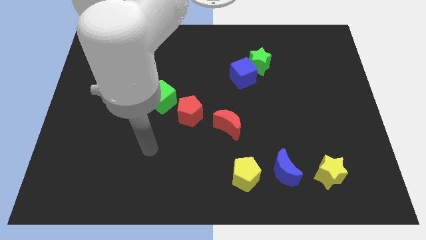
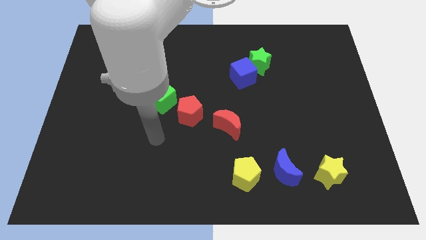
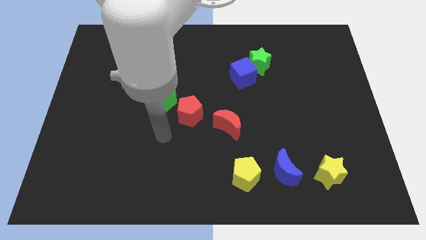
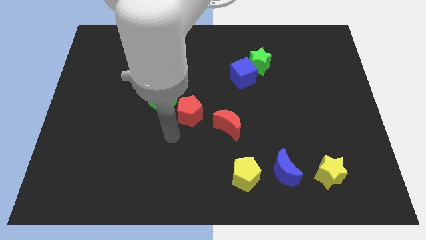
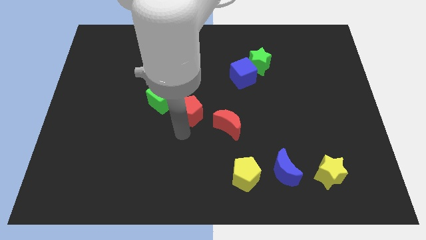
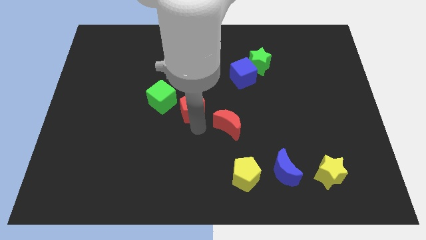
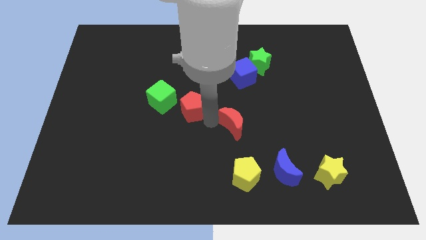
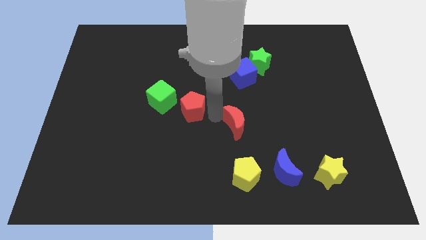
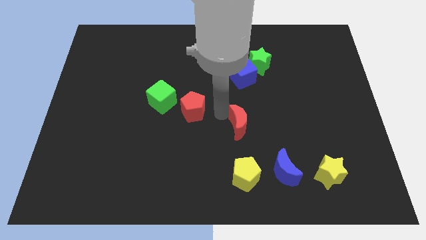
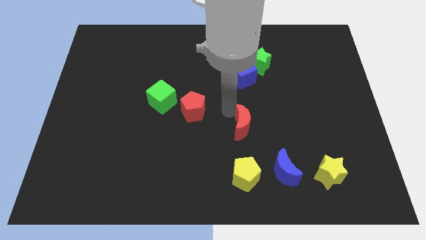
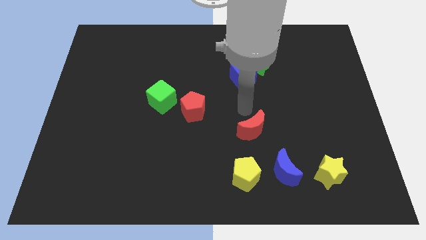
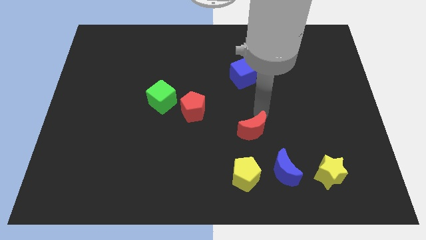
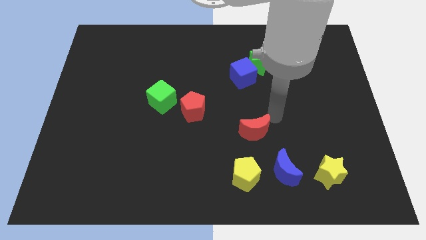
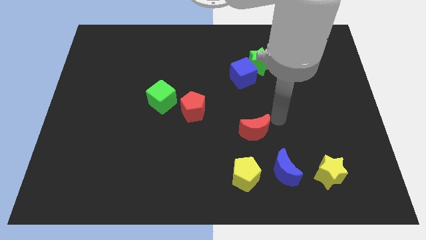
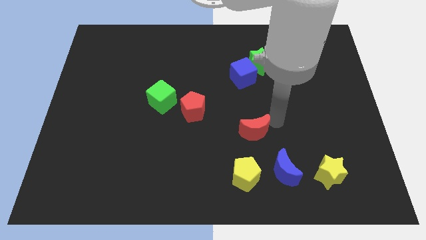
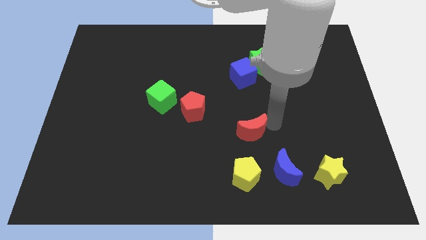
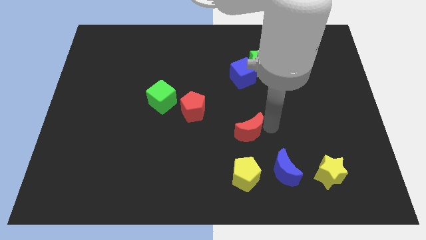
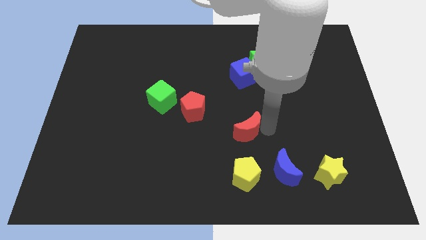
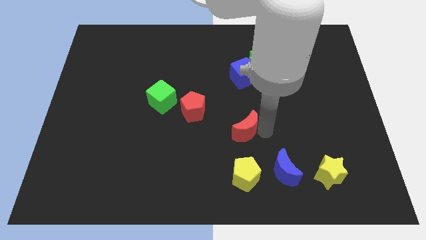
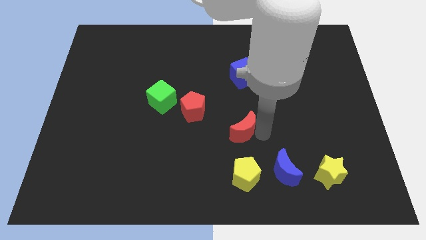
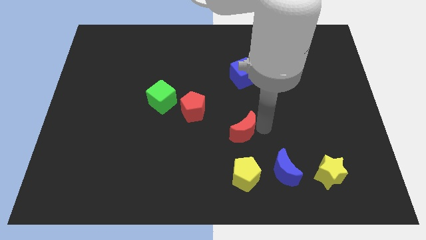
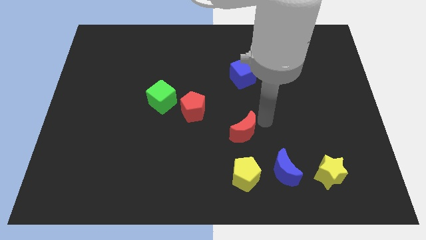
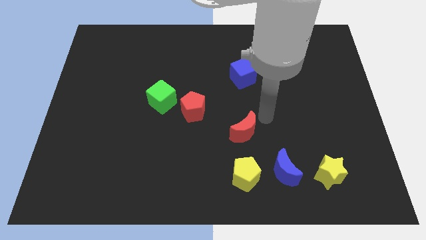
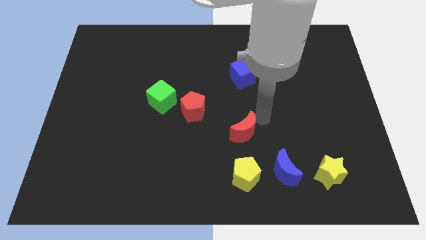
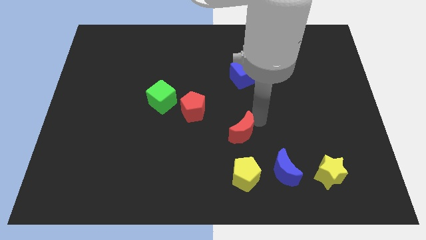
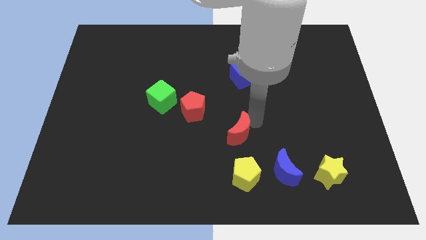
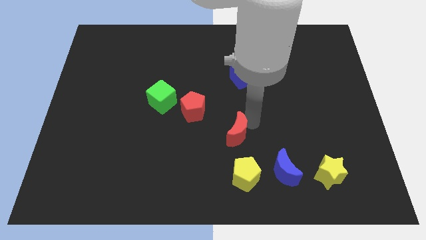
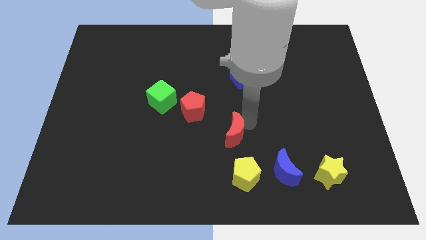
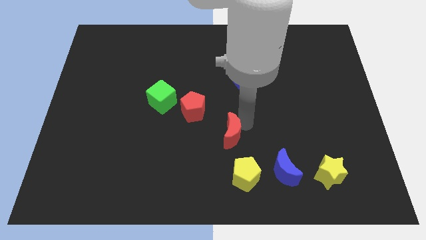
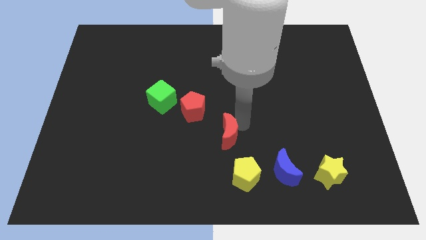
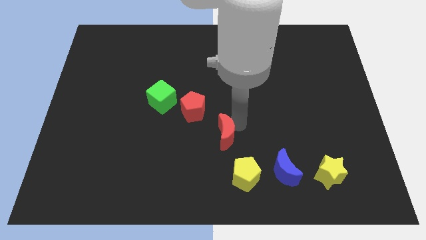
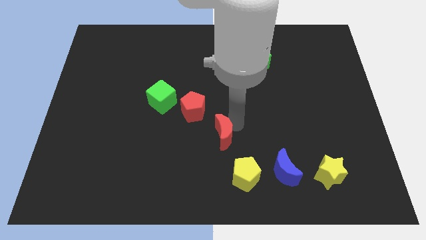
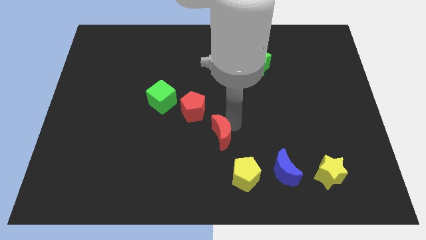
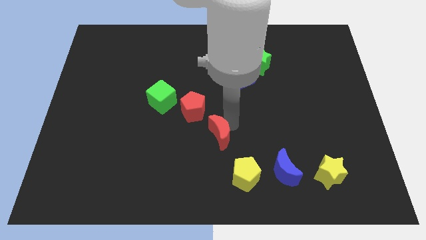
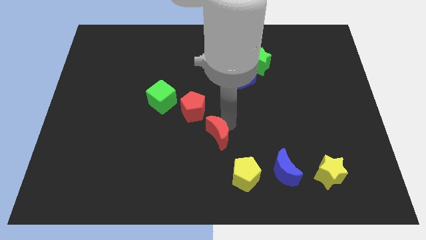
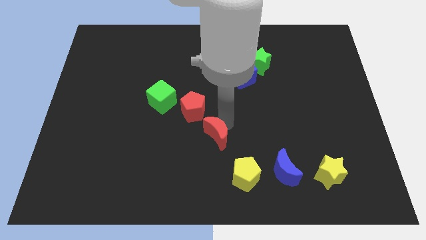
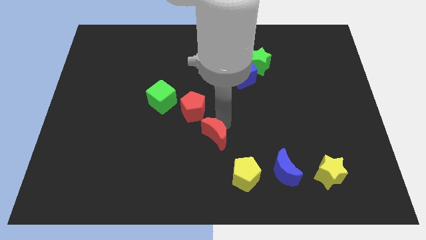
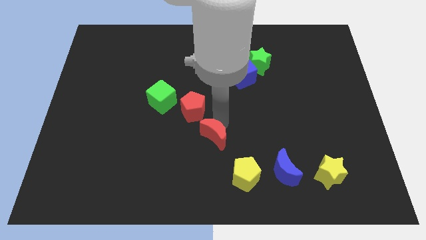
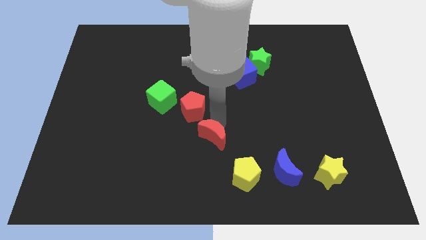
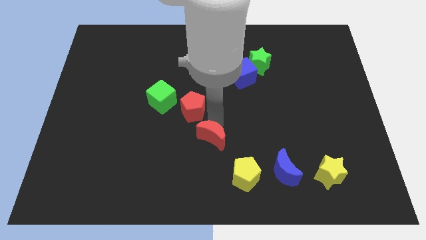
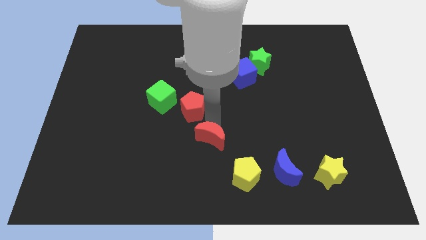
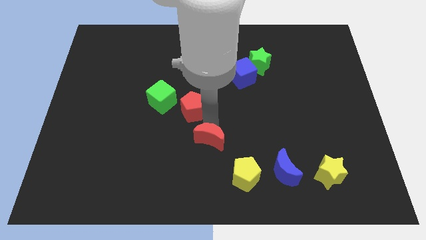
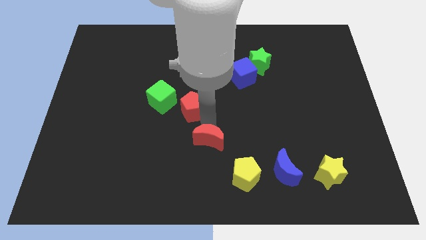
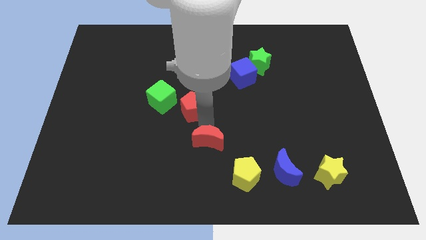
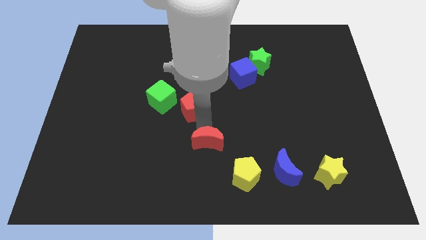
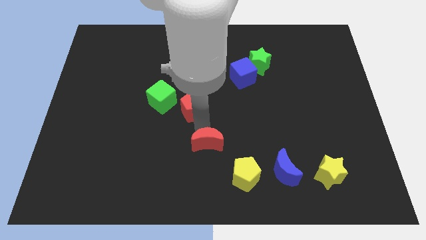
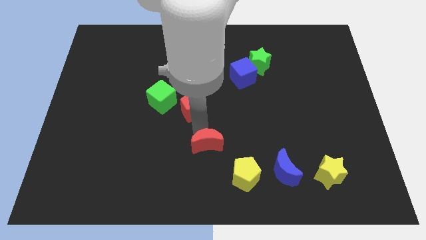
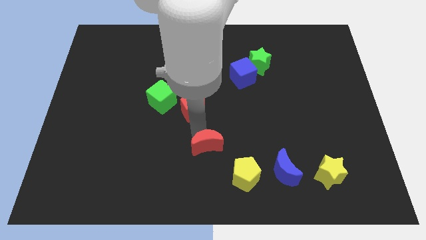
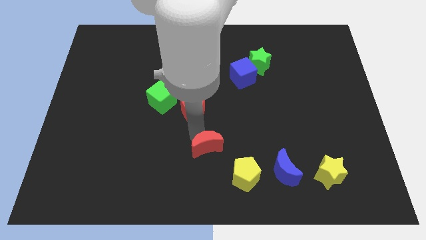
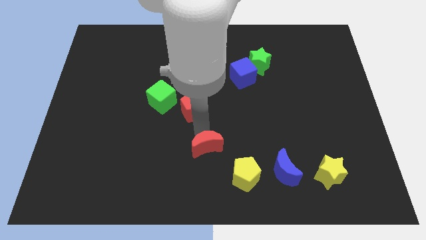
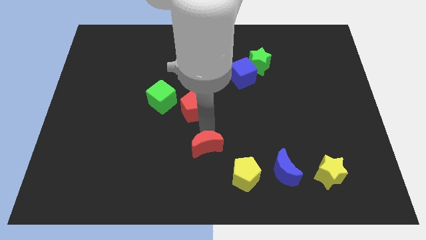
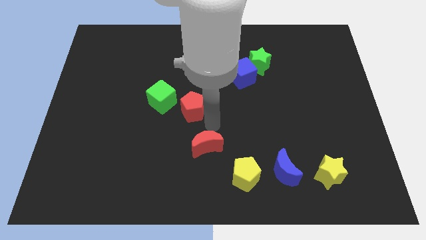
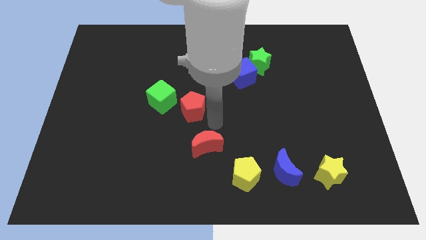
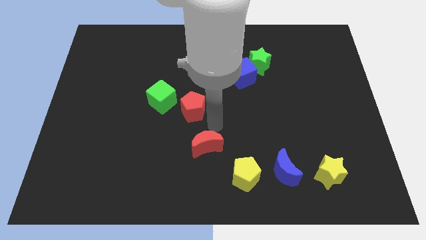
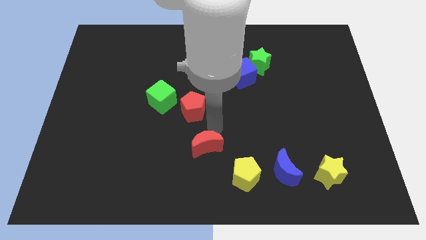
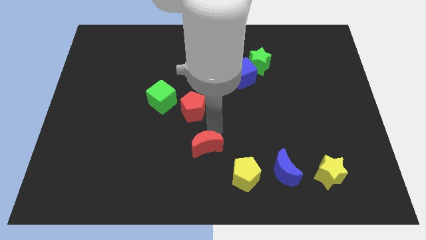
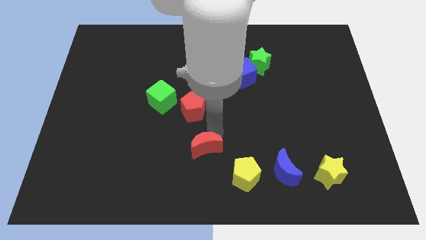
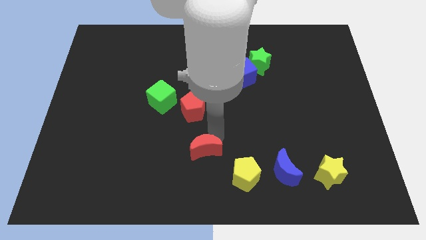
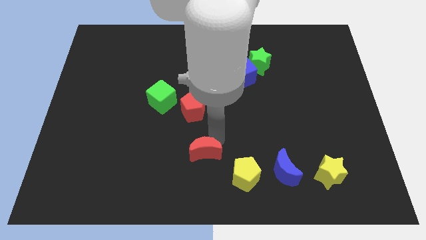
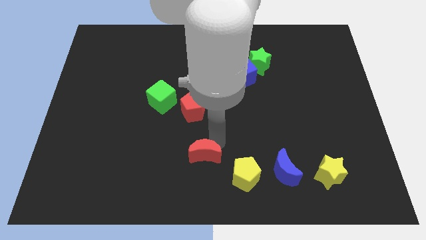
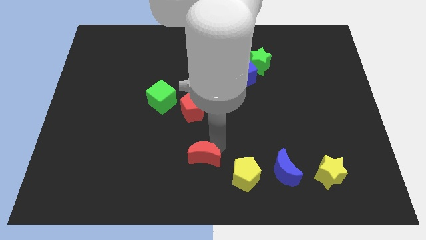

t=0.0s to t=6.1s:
put the red moon left of the yellow pentagon

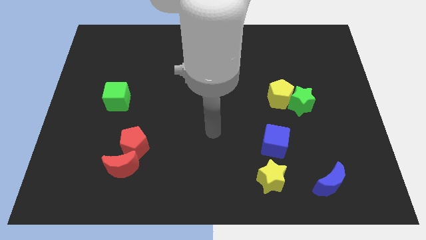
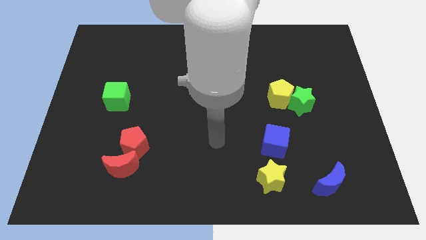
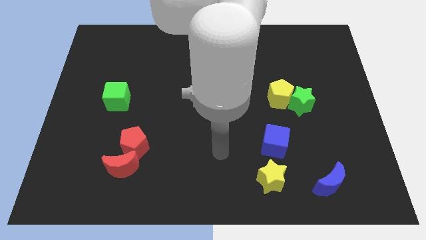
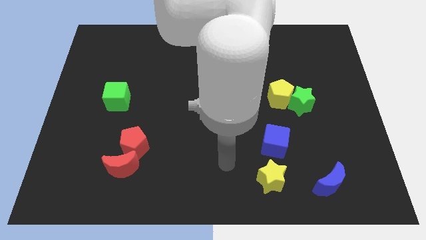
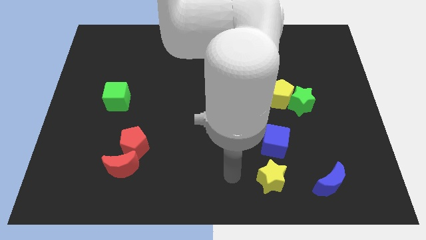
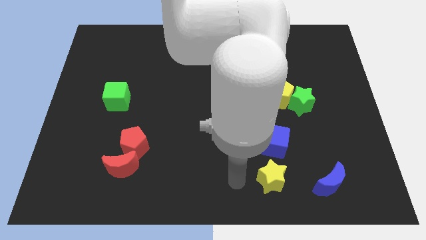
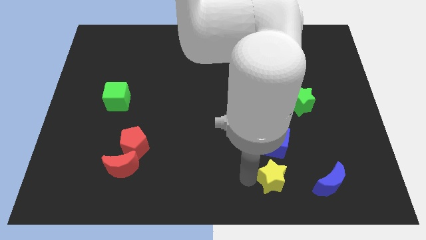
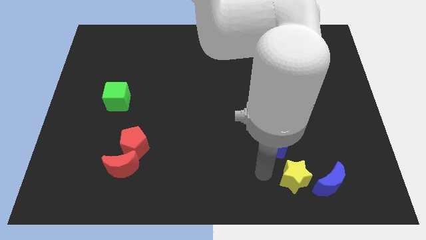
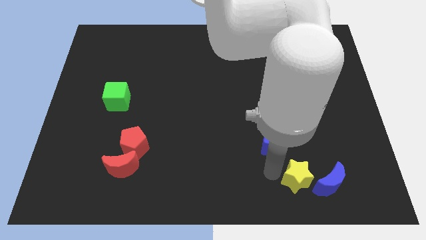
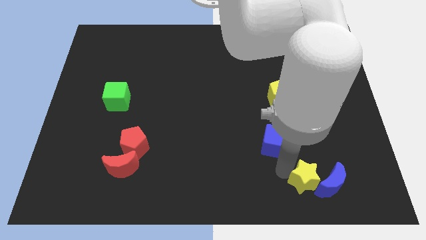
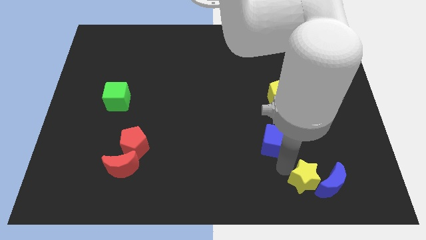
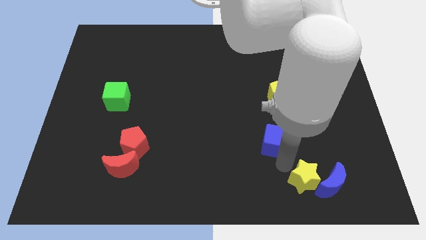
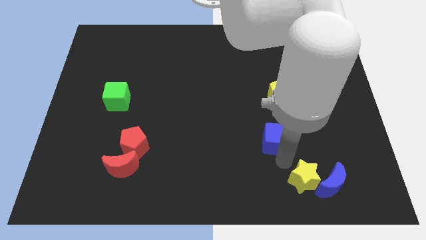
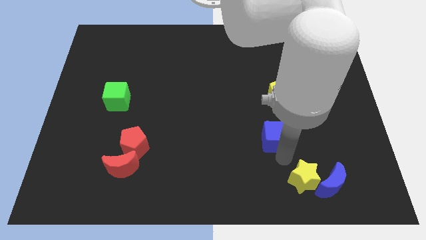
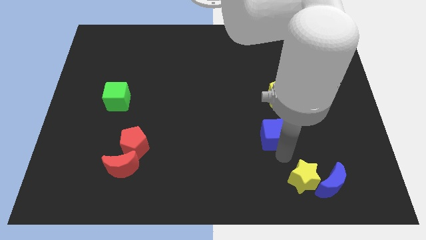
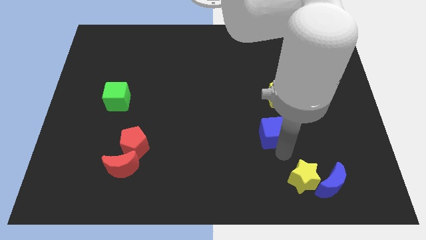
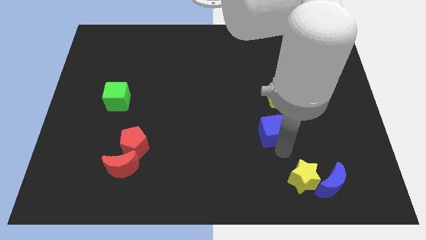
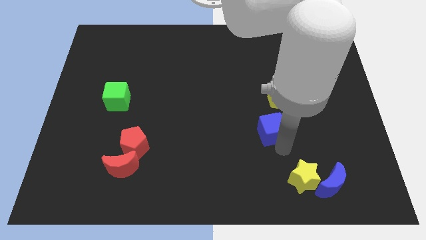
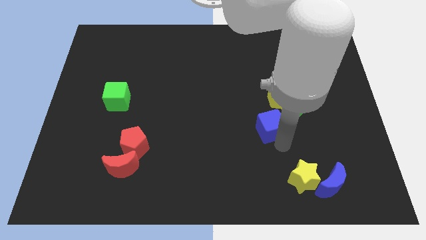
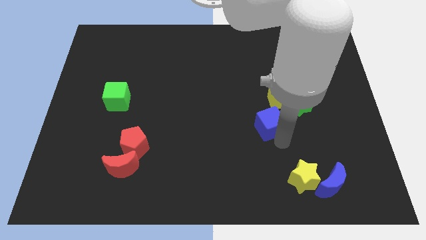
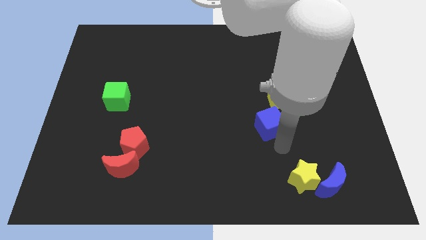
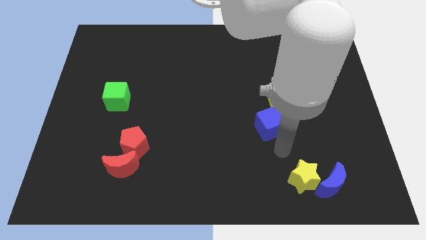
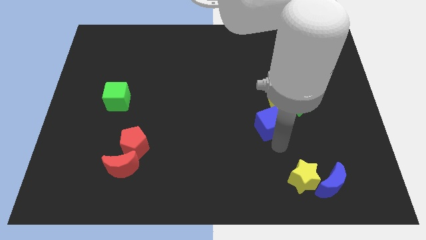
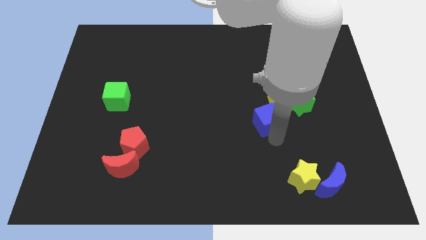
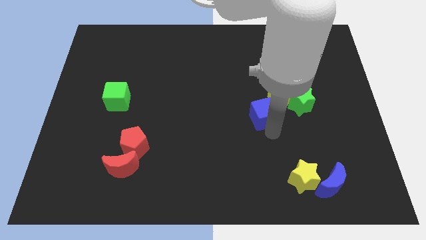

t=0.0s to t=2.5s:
push the blue cube to the left side of the green star
